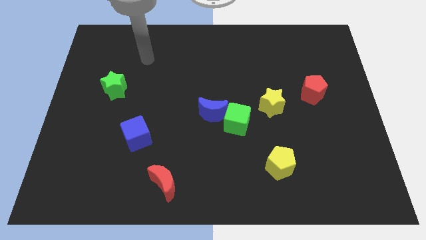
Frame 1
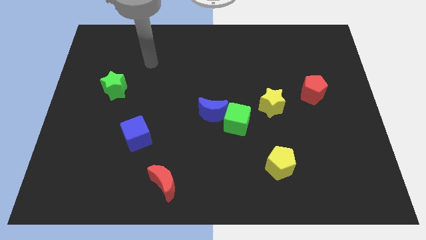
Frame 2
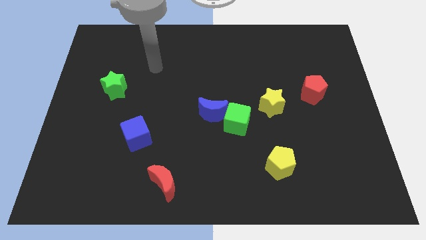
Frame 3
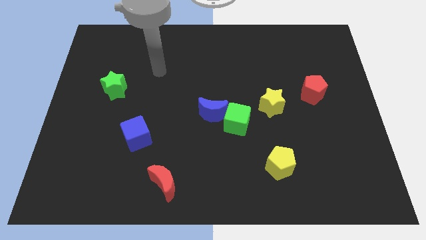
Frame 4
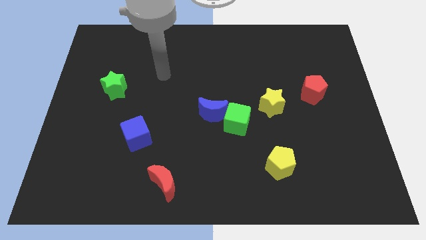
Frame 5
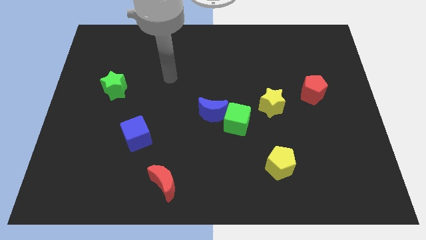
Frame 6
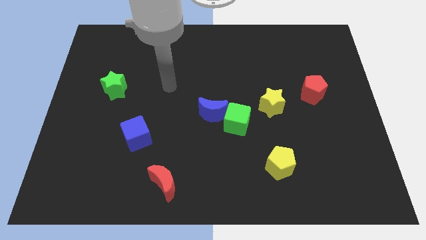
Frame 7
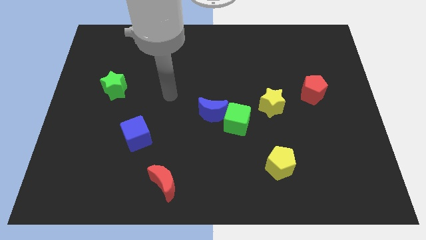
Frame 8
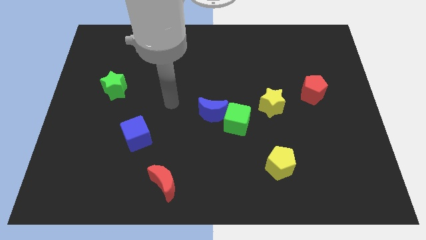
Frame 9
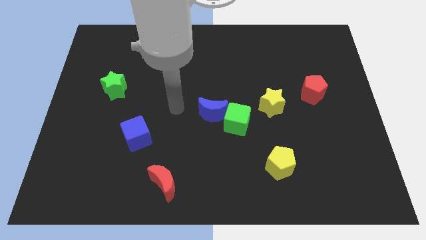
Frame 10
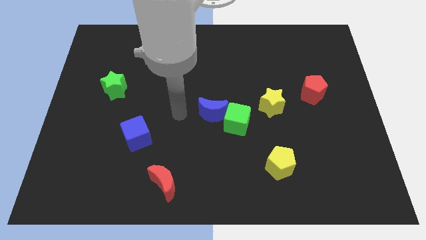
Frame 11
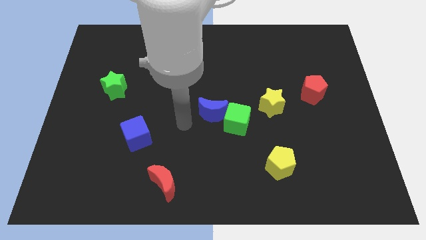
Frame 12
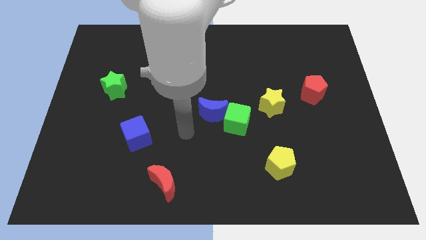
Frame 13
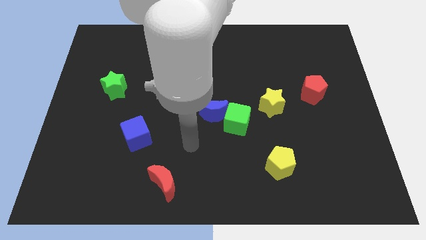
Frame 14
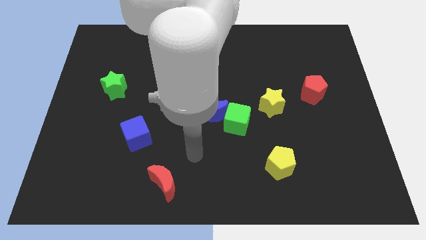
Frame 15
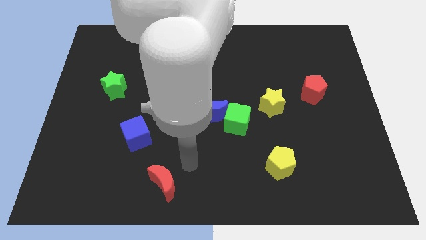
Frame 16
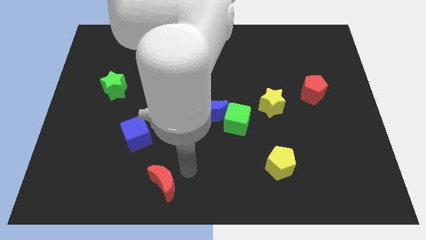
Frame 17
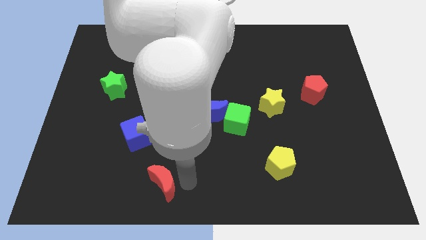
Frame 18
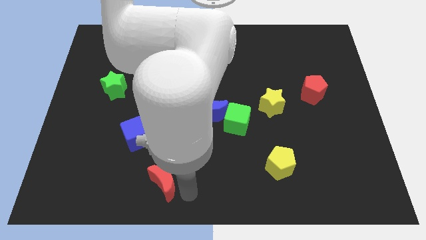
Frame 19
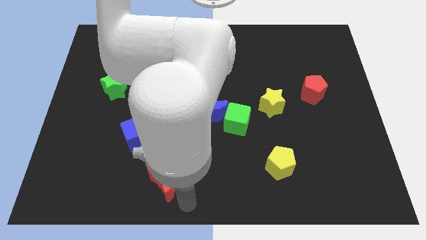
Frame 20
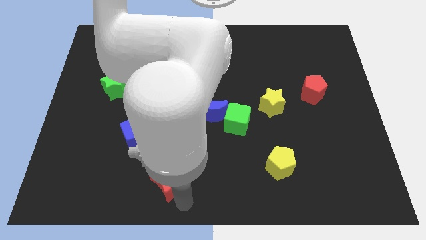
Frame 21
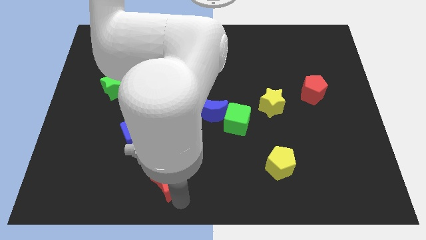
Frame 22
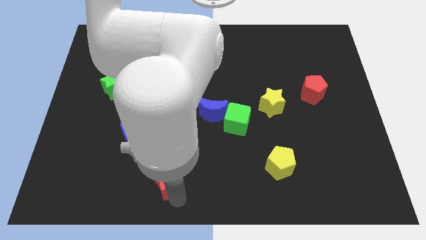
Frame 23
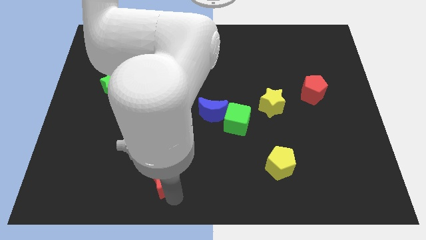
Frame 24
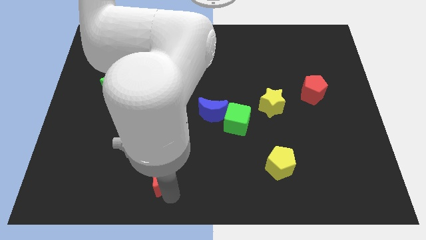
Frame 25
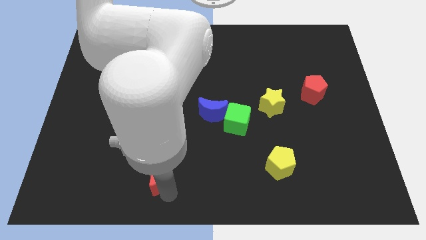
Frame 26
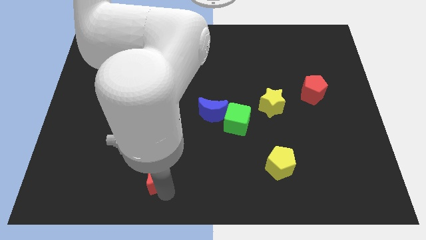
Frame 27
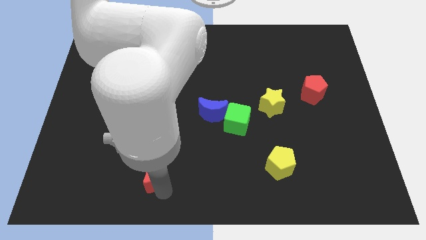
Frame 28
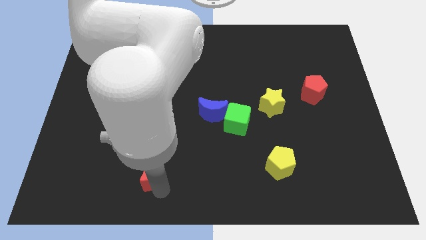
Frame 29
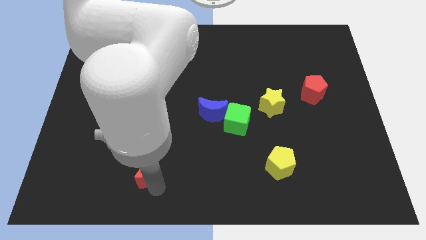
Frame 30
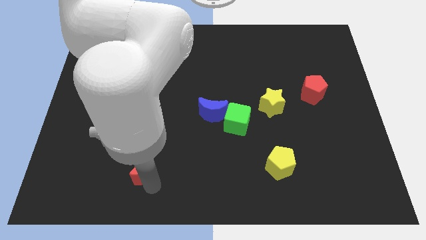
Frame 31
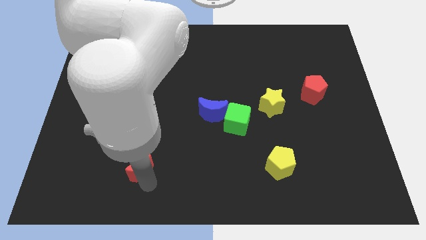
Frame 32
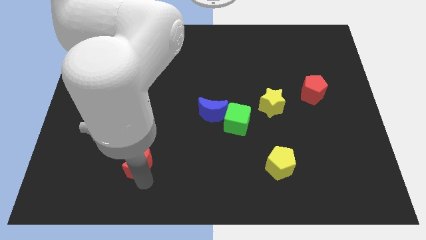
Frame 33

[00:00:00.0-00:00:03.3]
slightly push the red moon diagonally upwards and to the left

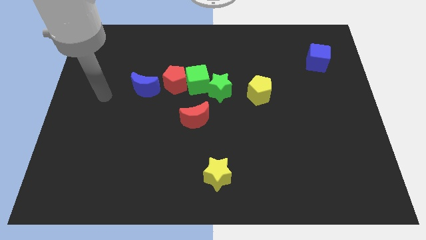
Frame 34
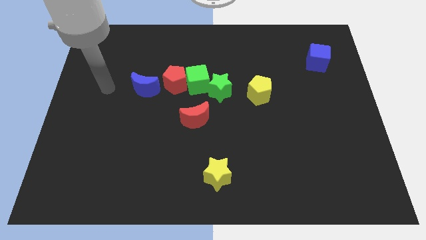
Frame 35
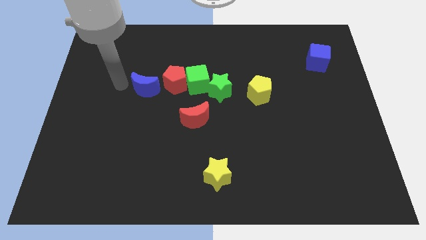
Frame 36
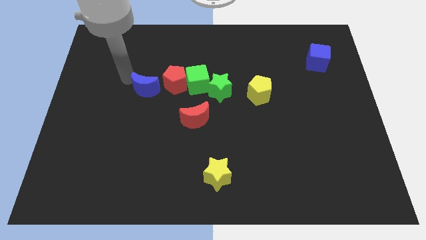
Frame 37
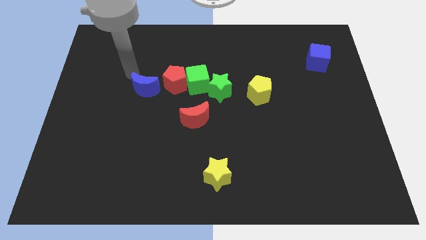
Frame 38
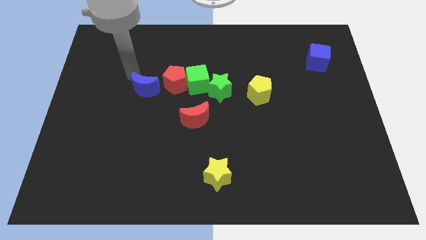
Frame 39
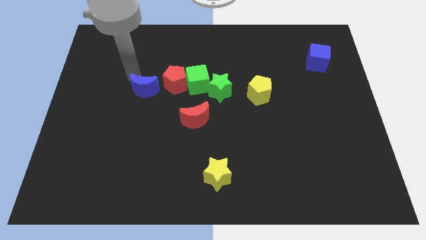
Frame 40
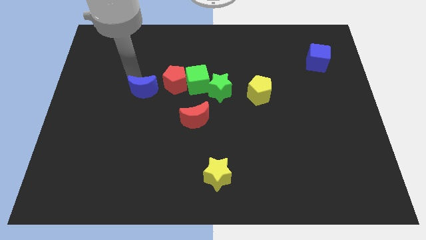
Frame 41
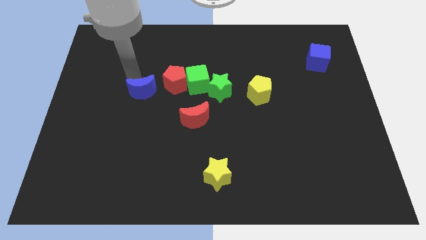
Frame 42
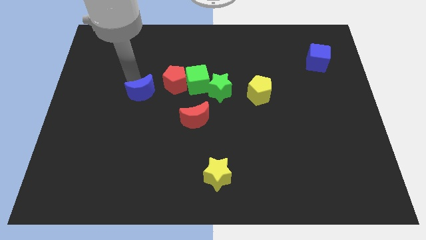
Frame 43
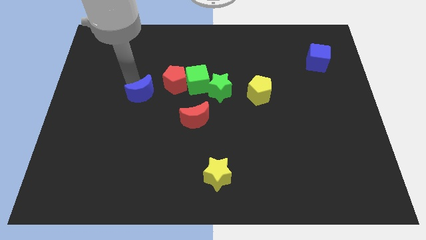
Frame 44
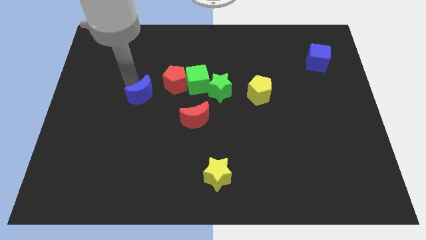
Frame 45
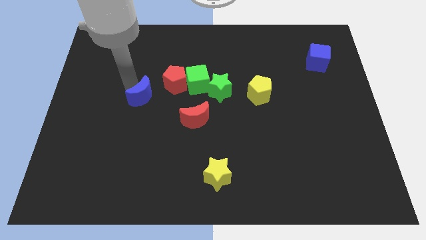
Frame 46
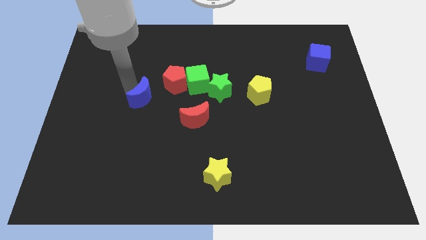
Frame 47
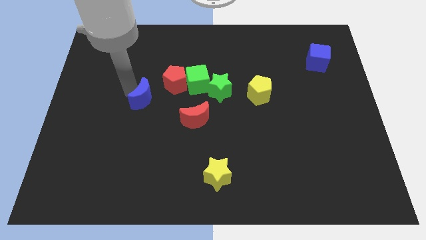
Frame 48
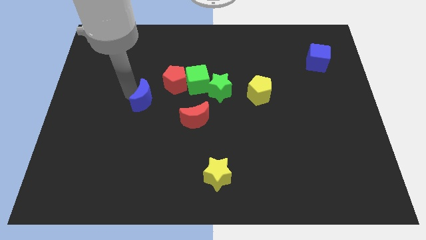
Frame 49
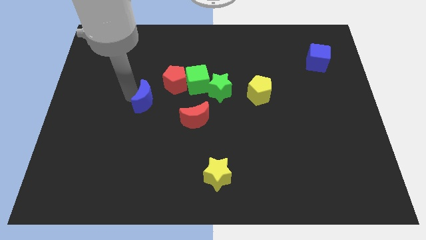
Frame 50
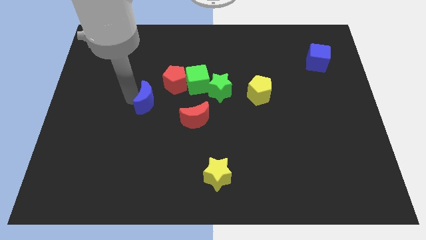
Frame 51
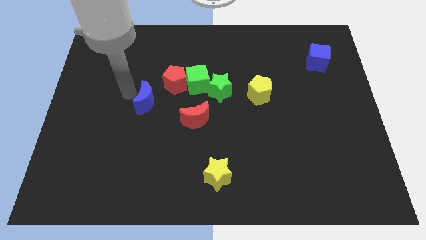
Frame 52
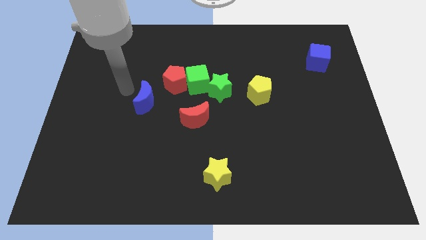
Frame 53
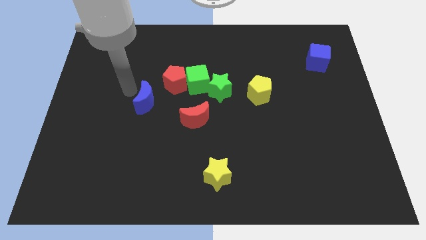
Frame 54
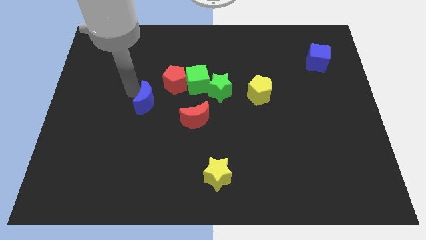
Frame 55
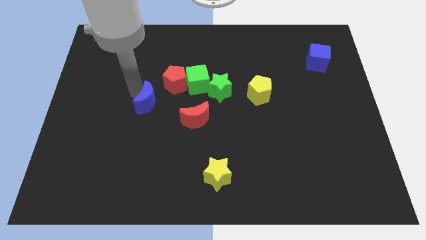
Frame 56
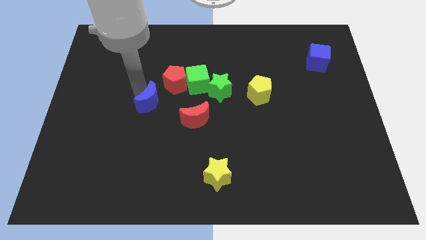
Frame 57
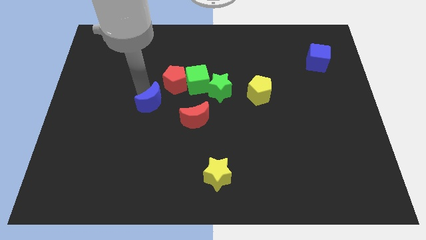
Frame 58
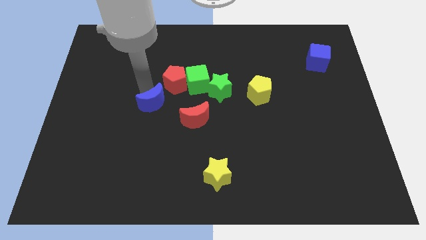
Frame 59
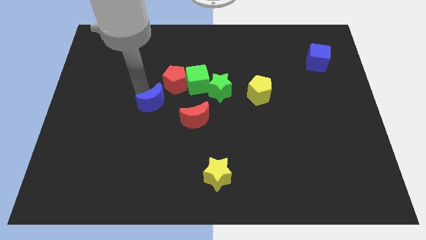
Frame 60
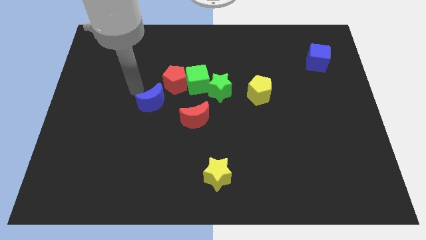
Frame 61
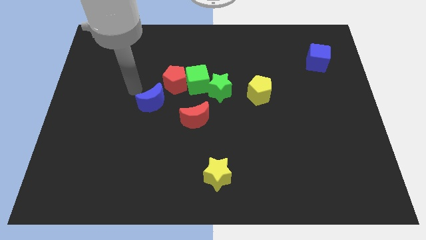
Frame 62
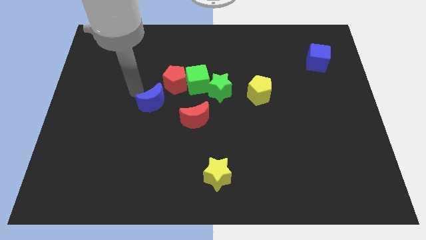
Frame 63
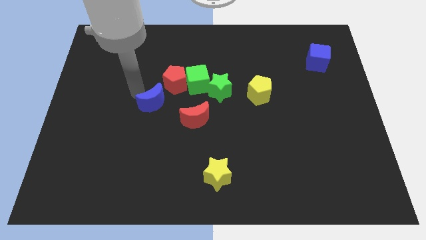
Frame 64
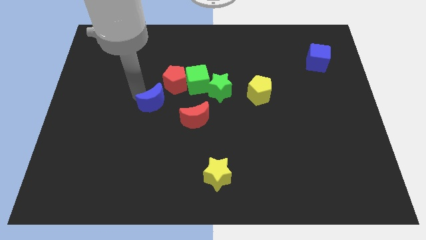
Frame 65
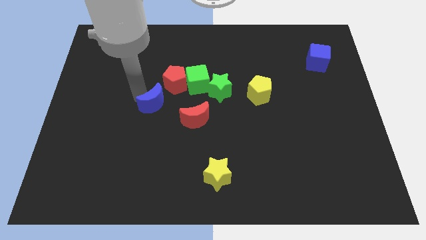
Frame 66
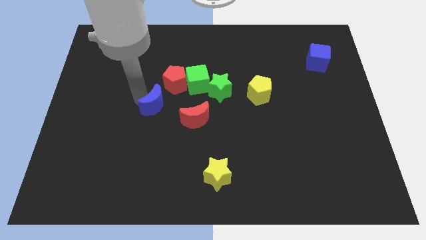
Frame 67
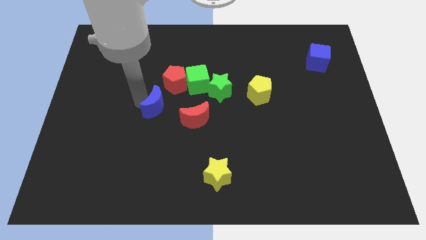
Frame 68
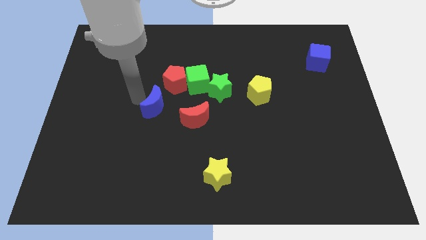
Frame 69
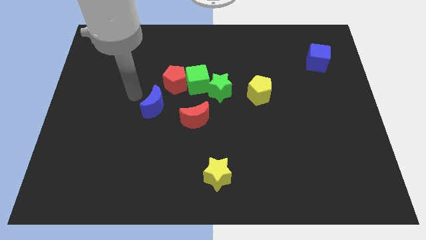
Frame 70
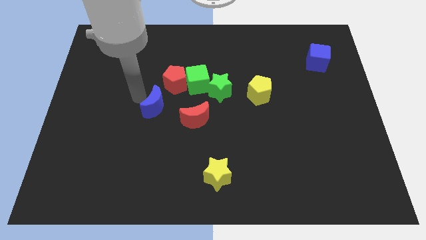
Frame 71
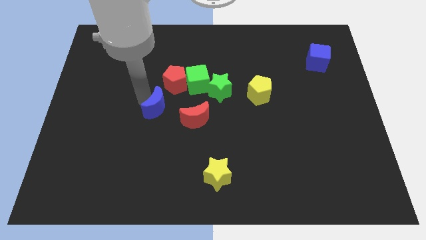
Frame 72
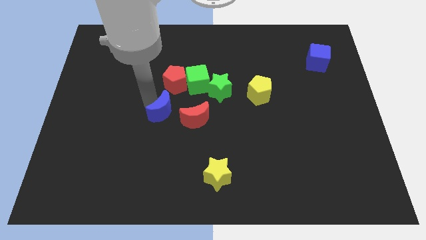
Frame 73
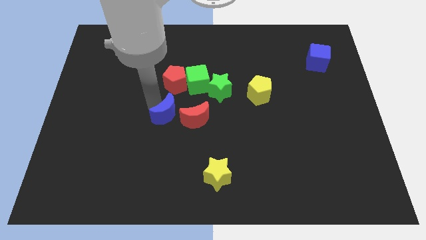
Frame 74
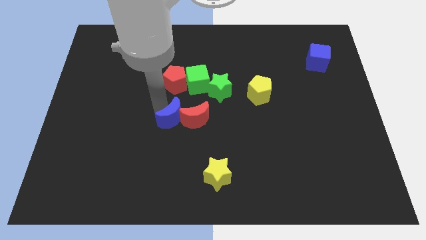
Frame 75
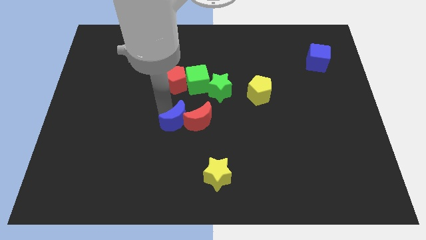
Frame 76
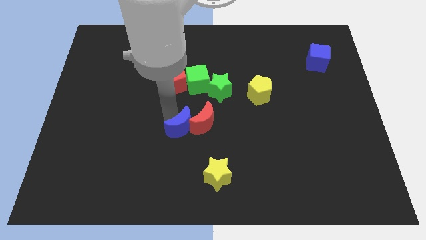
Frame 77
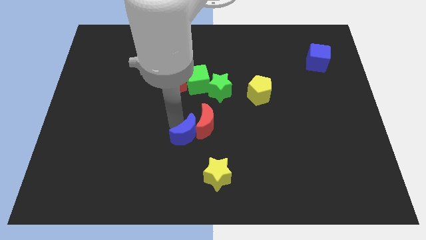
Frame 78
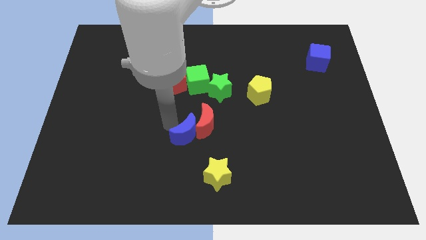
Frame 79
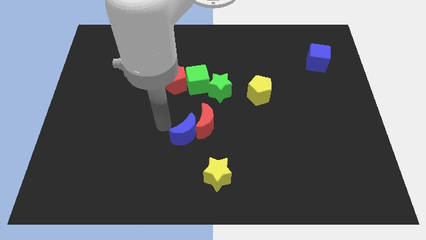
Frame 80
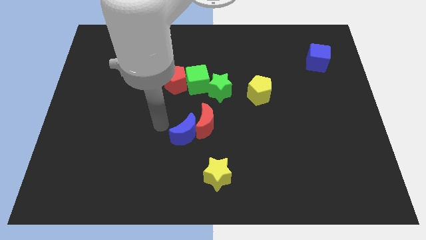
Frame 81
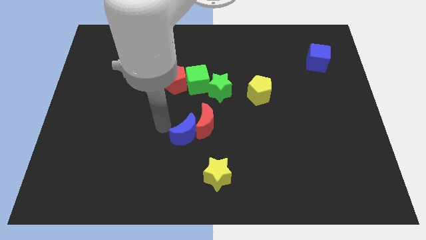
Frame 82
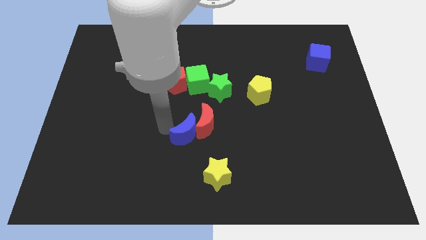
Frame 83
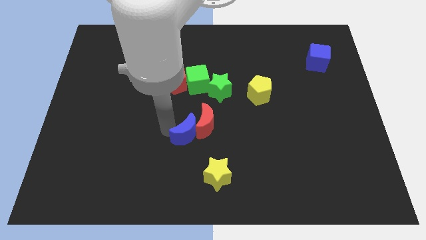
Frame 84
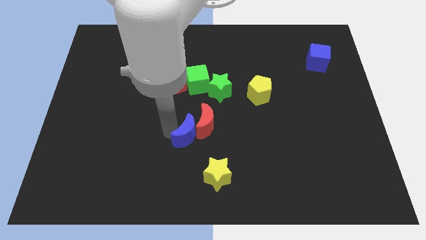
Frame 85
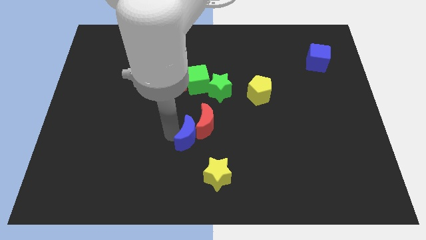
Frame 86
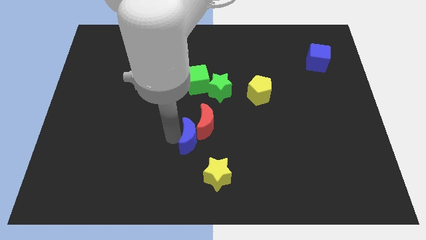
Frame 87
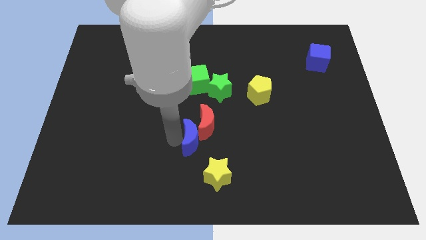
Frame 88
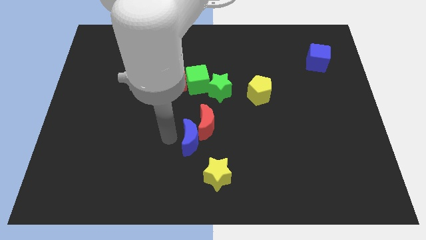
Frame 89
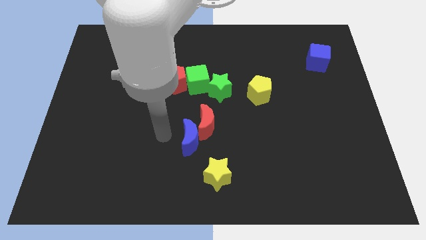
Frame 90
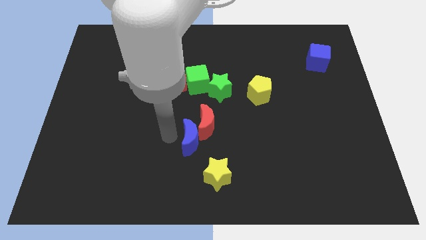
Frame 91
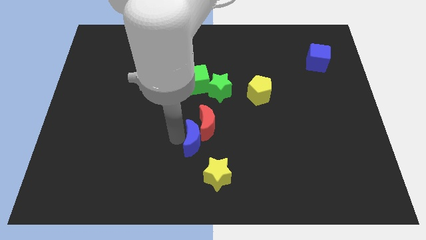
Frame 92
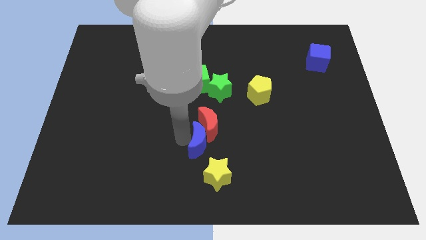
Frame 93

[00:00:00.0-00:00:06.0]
push the blue moon diagonally down and to the right
